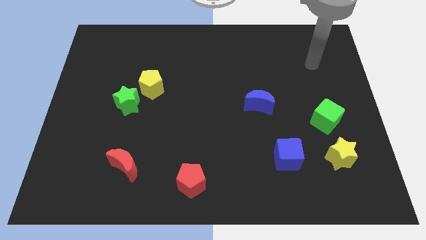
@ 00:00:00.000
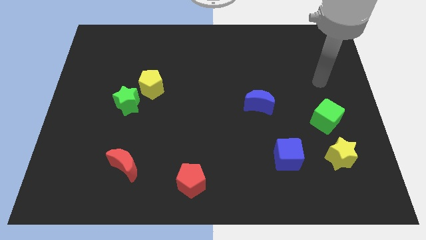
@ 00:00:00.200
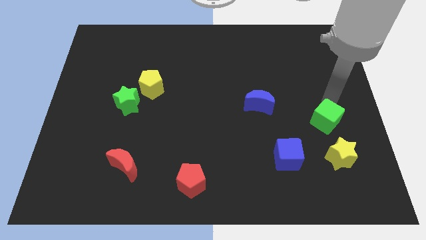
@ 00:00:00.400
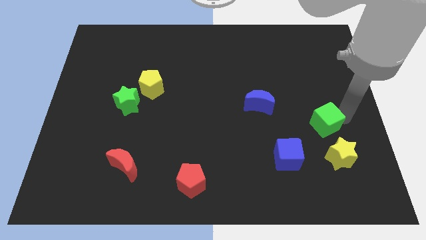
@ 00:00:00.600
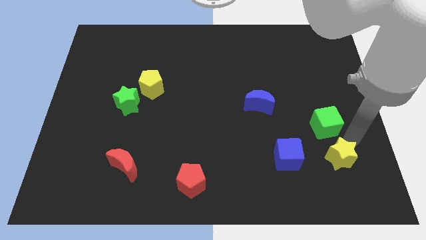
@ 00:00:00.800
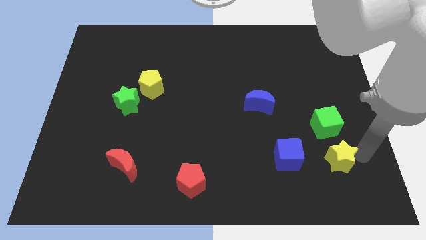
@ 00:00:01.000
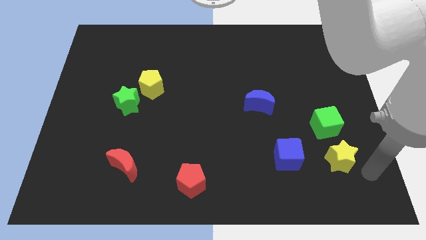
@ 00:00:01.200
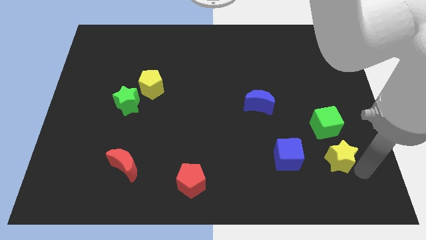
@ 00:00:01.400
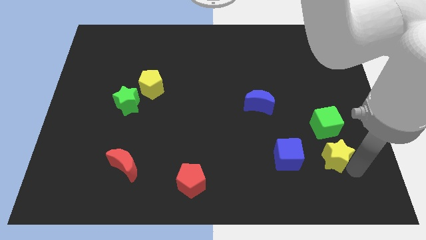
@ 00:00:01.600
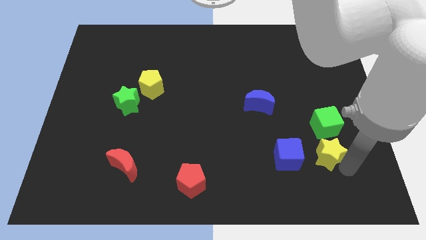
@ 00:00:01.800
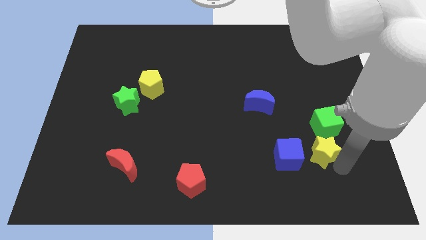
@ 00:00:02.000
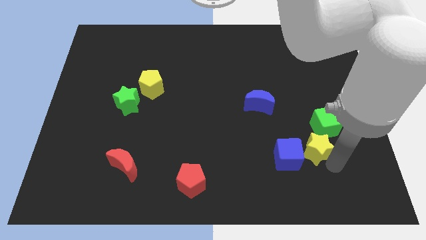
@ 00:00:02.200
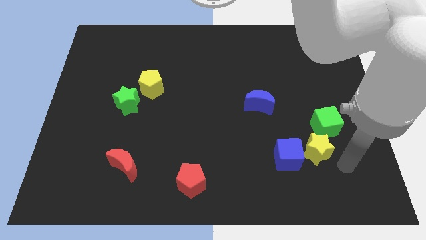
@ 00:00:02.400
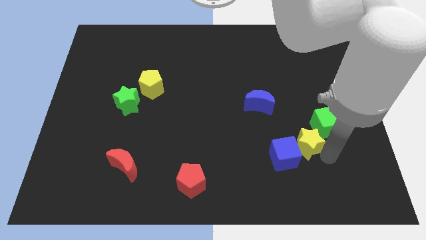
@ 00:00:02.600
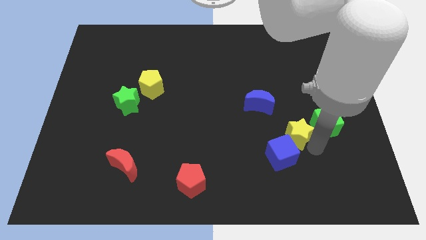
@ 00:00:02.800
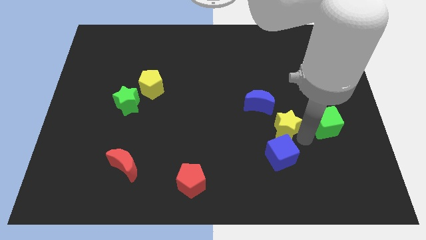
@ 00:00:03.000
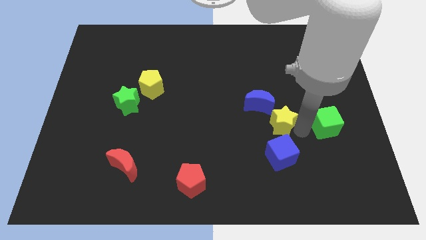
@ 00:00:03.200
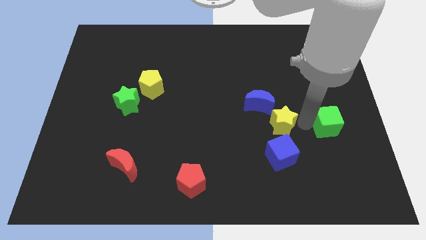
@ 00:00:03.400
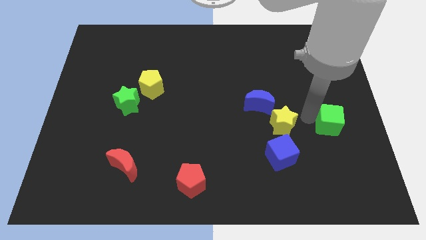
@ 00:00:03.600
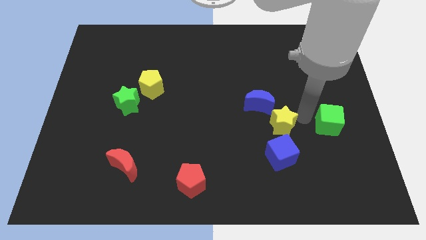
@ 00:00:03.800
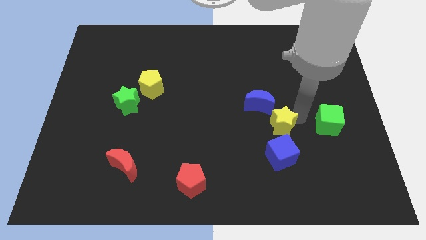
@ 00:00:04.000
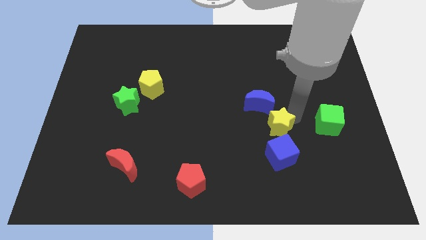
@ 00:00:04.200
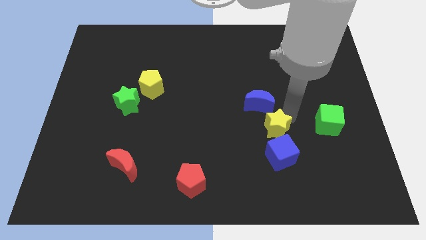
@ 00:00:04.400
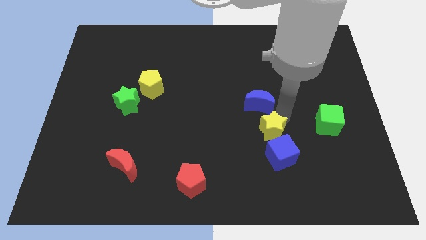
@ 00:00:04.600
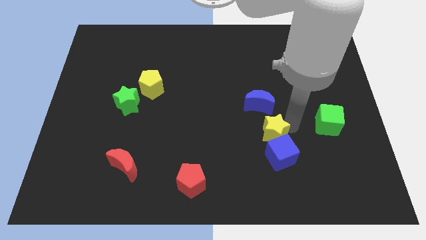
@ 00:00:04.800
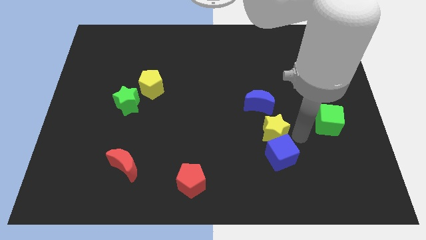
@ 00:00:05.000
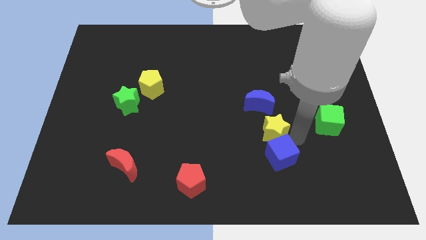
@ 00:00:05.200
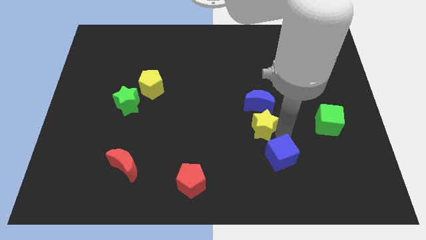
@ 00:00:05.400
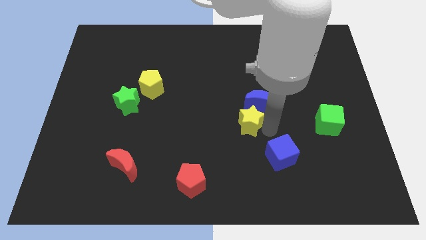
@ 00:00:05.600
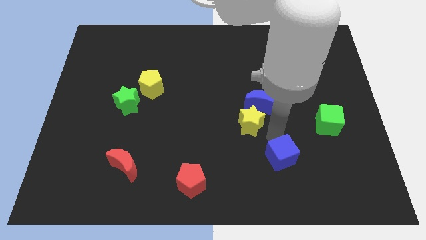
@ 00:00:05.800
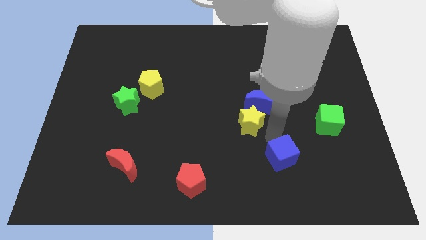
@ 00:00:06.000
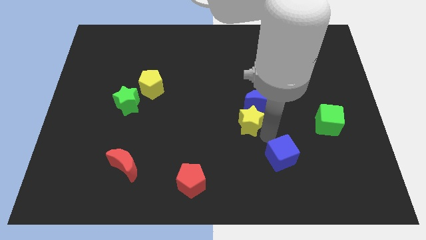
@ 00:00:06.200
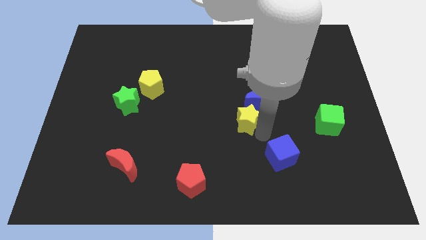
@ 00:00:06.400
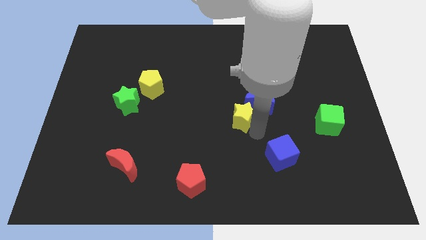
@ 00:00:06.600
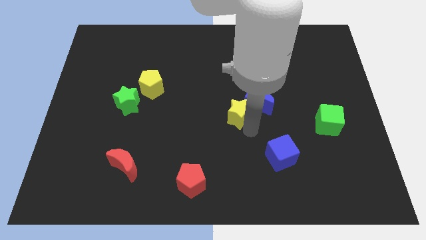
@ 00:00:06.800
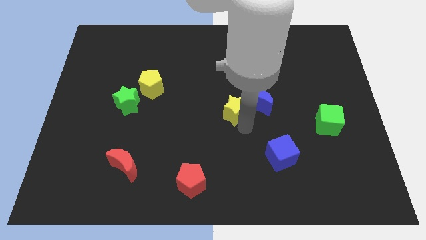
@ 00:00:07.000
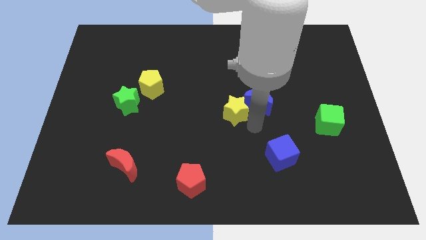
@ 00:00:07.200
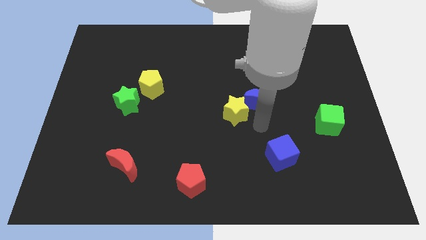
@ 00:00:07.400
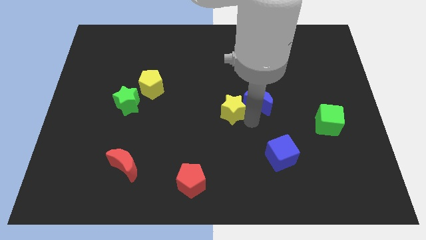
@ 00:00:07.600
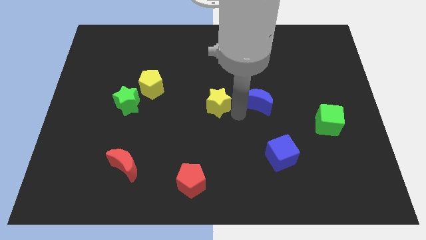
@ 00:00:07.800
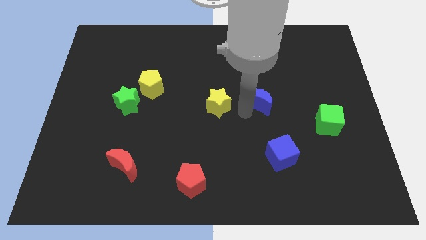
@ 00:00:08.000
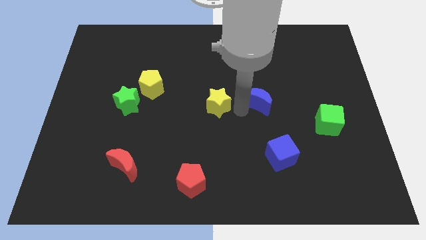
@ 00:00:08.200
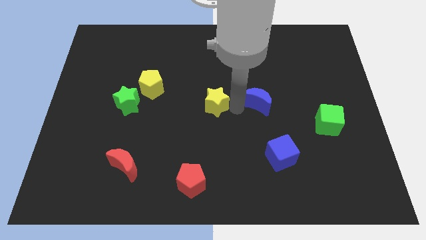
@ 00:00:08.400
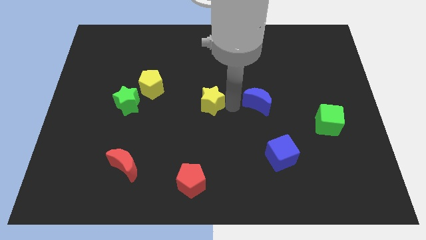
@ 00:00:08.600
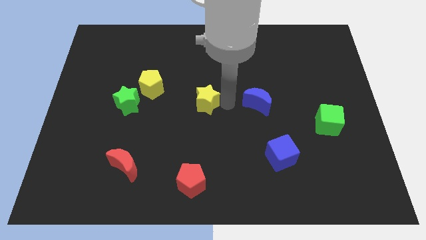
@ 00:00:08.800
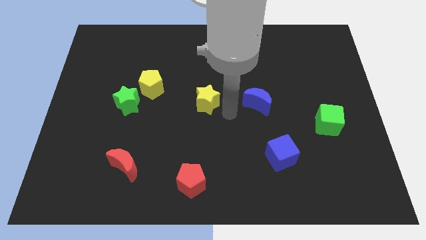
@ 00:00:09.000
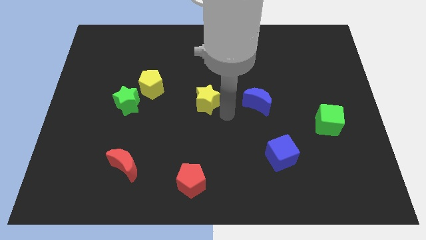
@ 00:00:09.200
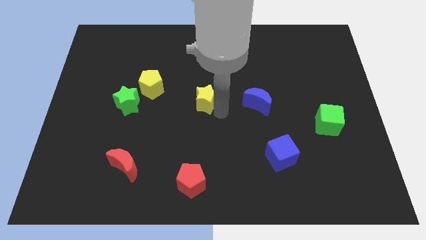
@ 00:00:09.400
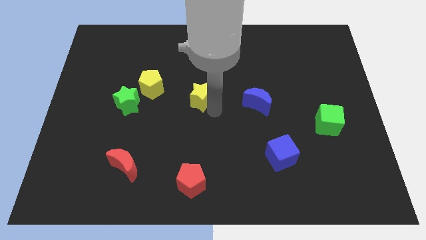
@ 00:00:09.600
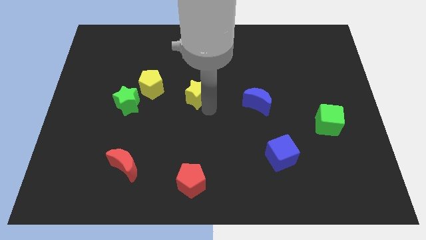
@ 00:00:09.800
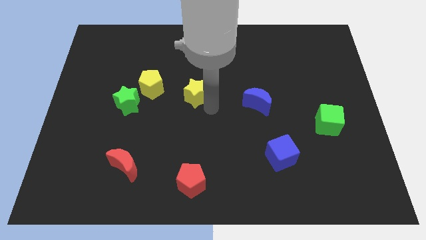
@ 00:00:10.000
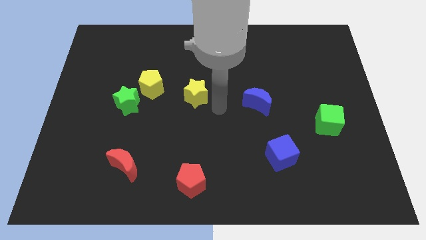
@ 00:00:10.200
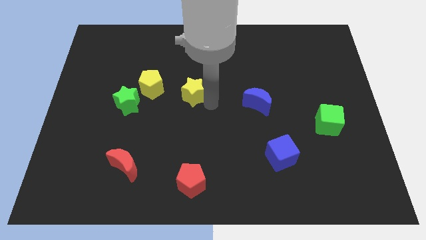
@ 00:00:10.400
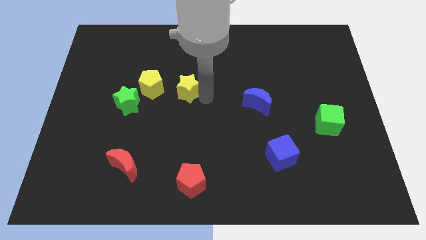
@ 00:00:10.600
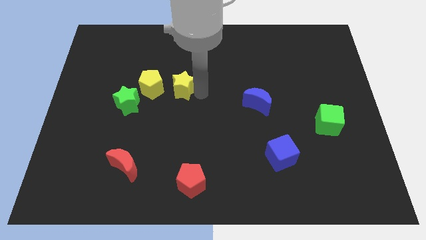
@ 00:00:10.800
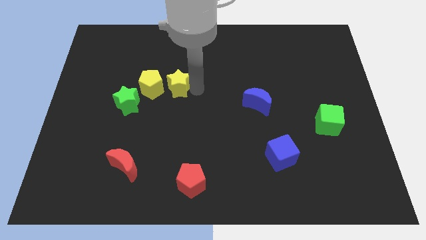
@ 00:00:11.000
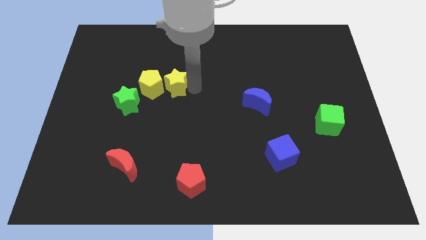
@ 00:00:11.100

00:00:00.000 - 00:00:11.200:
push the yellow star next to the yellow pentagon

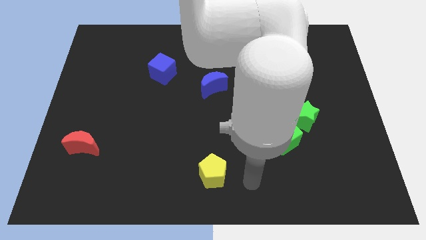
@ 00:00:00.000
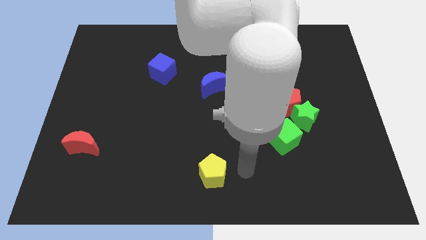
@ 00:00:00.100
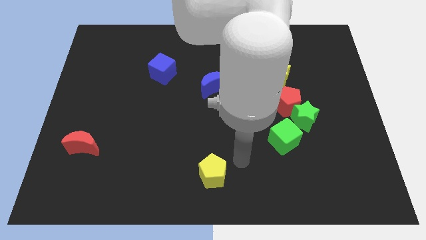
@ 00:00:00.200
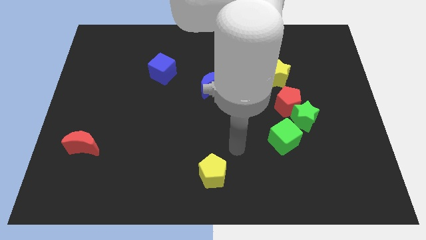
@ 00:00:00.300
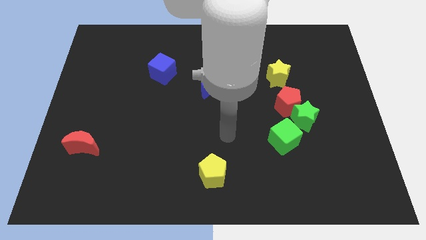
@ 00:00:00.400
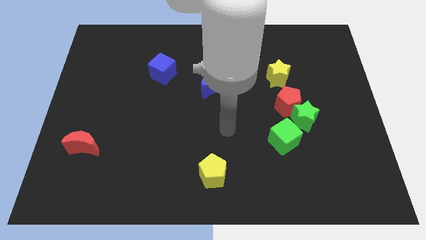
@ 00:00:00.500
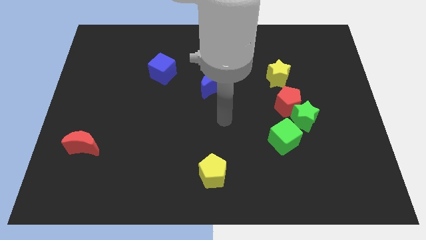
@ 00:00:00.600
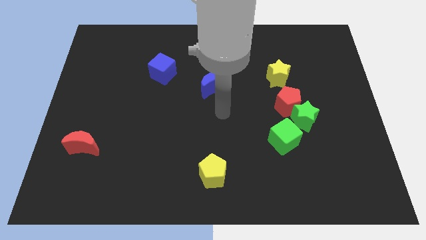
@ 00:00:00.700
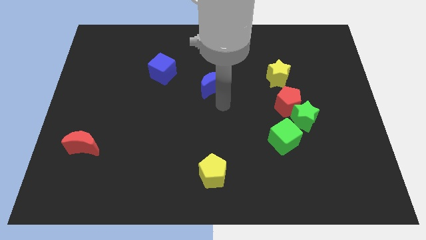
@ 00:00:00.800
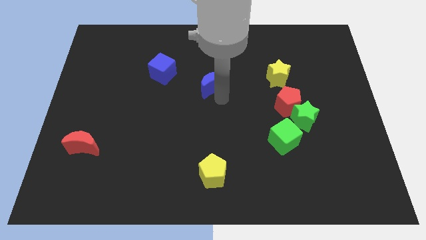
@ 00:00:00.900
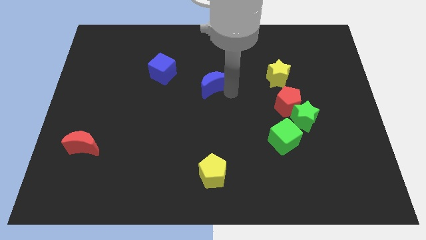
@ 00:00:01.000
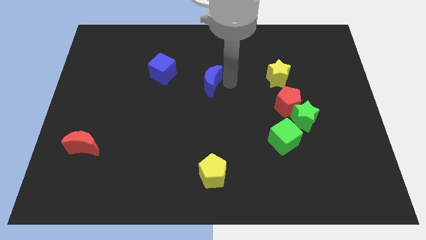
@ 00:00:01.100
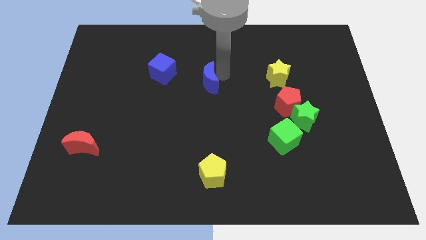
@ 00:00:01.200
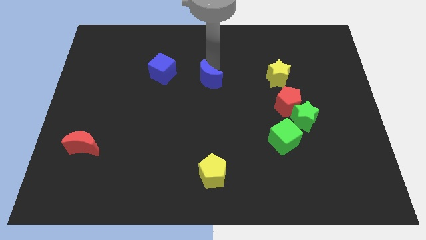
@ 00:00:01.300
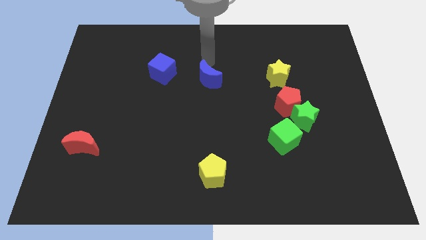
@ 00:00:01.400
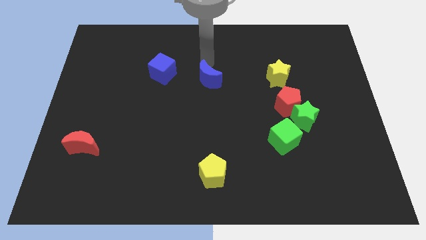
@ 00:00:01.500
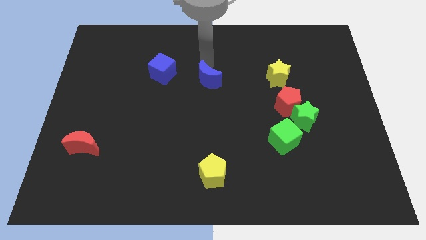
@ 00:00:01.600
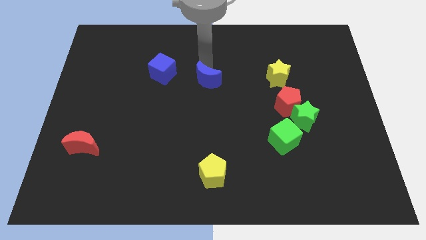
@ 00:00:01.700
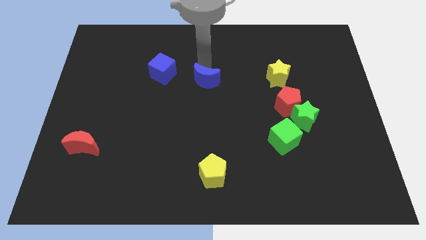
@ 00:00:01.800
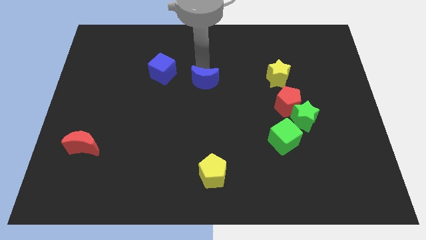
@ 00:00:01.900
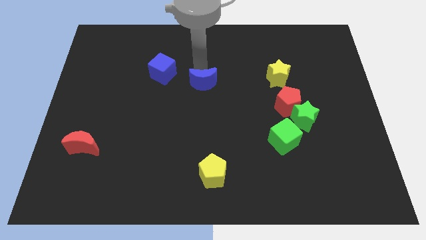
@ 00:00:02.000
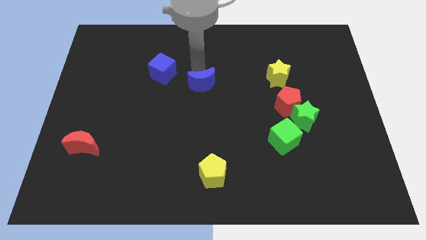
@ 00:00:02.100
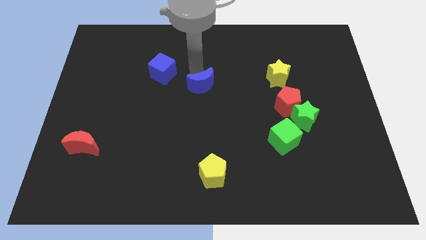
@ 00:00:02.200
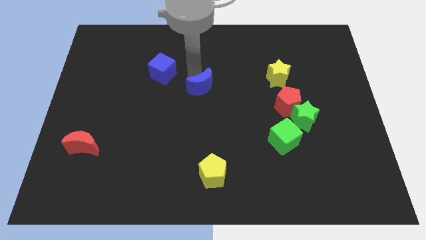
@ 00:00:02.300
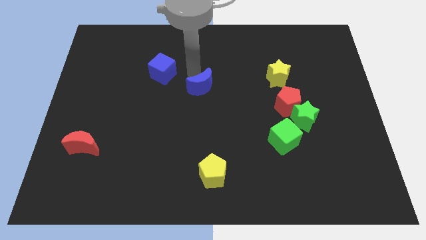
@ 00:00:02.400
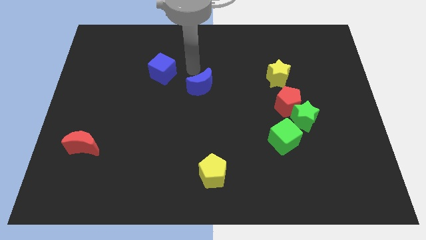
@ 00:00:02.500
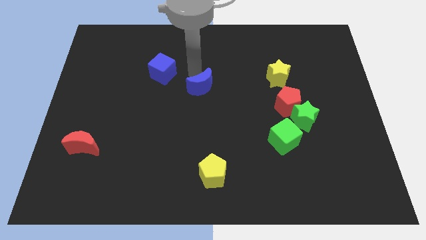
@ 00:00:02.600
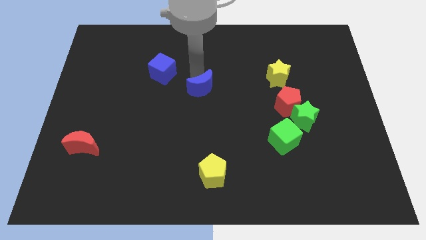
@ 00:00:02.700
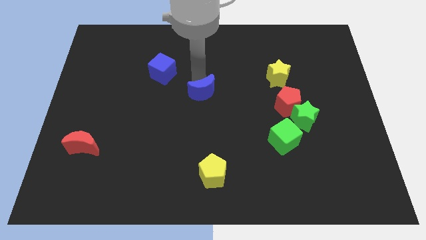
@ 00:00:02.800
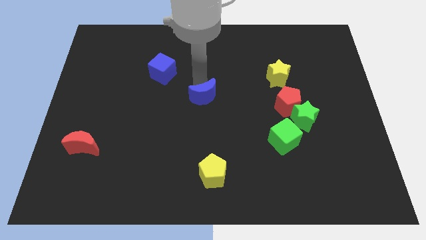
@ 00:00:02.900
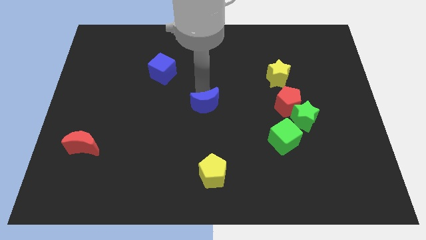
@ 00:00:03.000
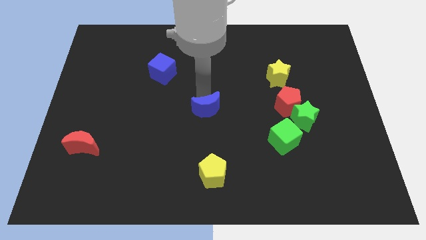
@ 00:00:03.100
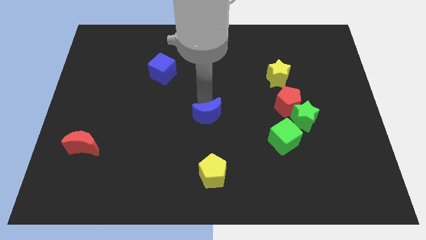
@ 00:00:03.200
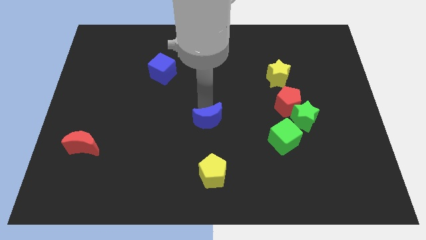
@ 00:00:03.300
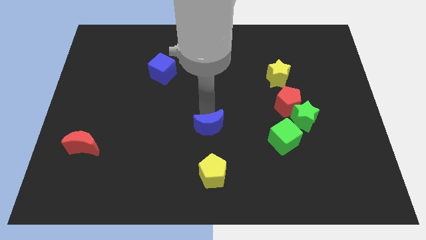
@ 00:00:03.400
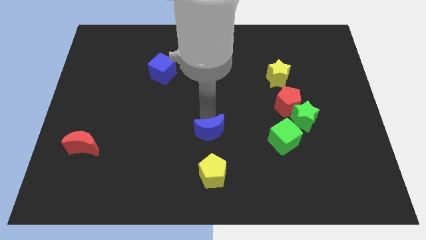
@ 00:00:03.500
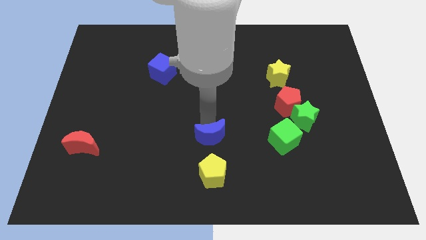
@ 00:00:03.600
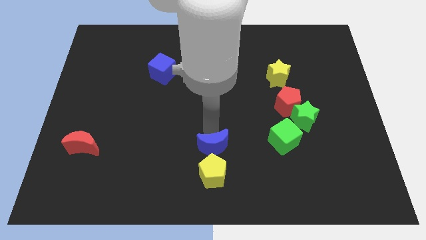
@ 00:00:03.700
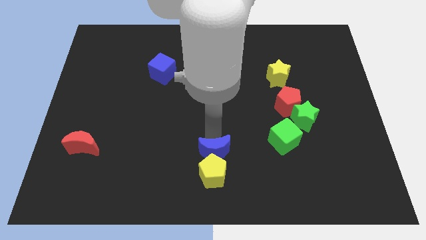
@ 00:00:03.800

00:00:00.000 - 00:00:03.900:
push the blue moon to the yellow pentagon
